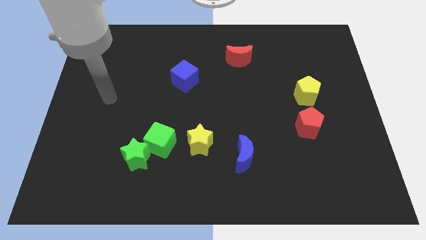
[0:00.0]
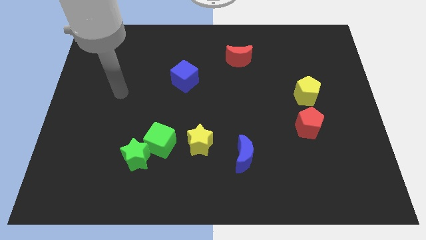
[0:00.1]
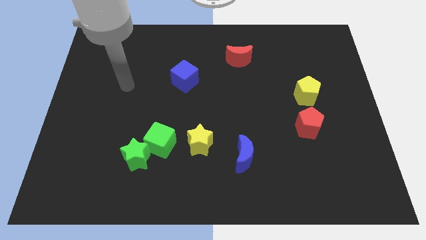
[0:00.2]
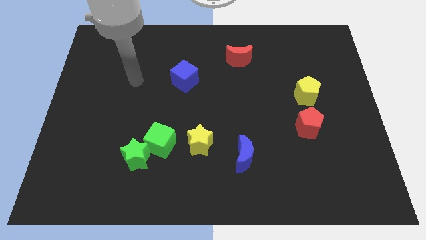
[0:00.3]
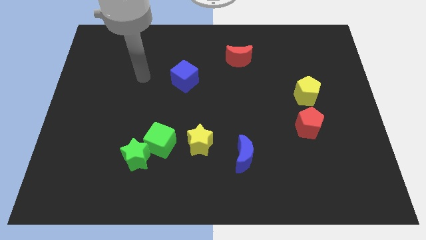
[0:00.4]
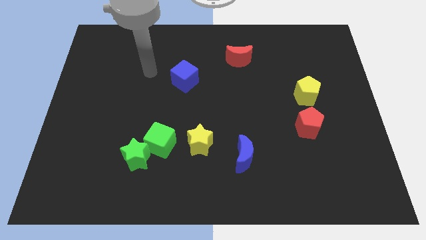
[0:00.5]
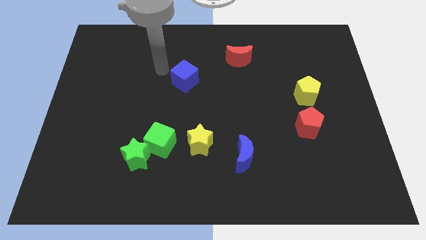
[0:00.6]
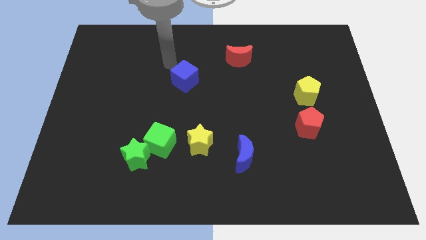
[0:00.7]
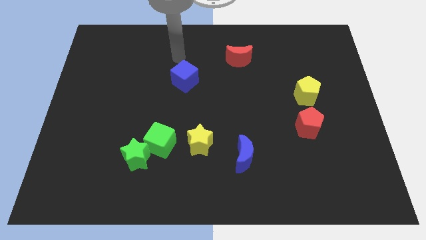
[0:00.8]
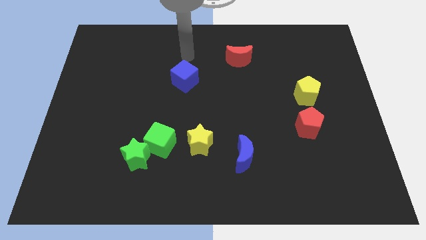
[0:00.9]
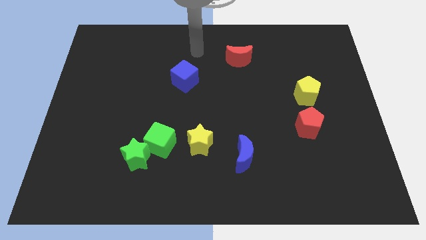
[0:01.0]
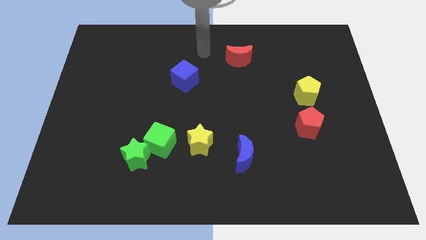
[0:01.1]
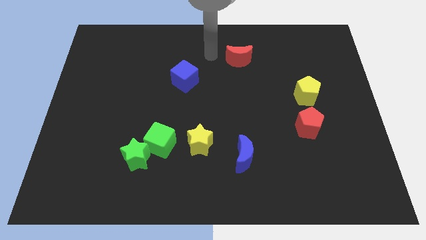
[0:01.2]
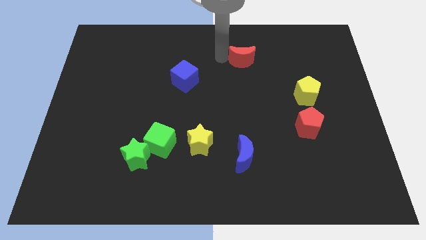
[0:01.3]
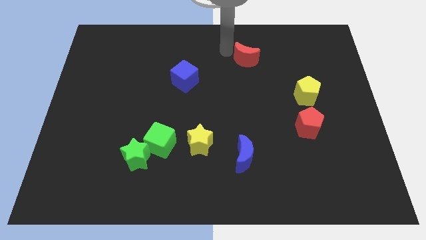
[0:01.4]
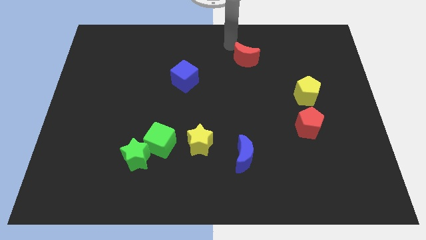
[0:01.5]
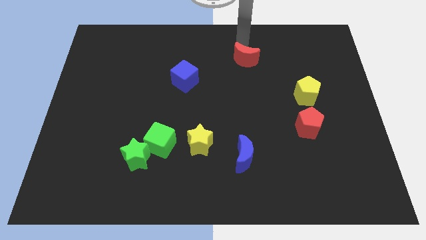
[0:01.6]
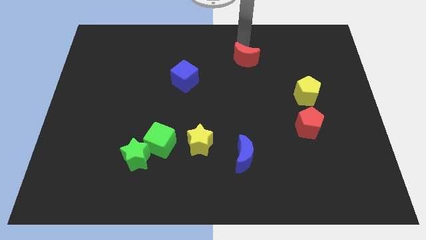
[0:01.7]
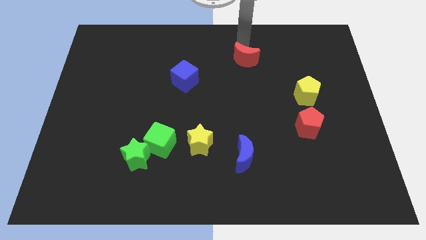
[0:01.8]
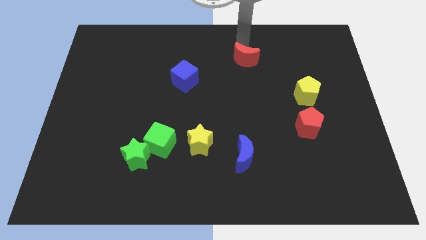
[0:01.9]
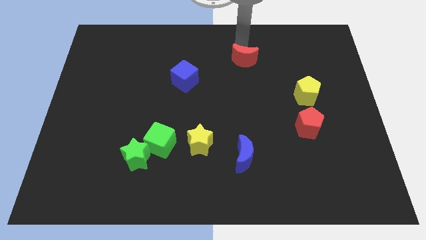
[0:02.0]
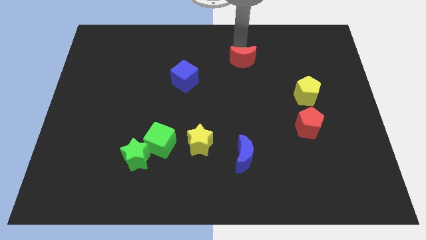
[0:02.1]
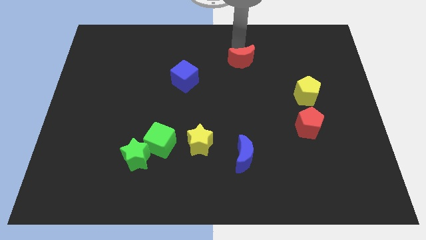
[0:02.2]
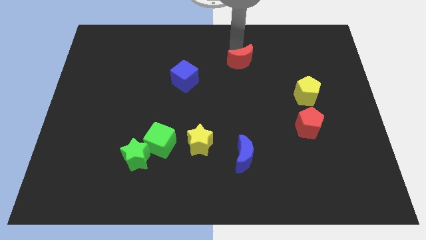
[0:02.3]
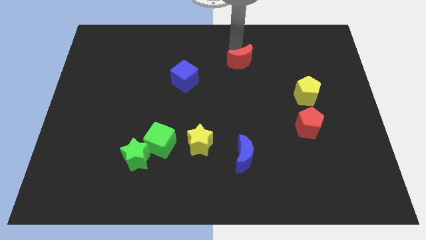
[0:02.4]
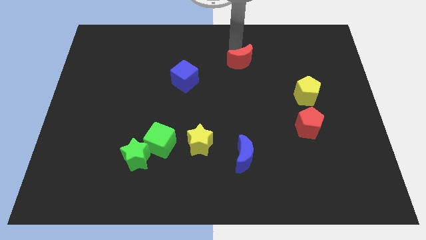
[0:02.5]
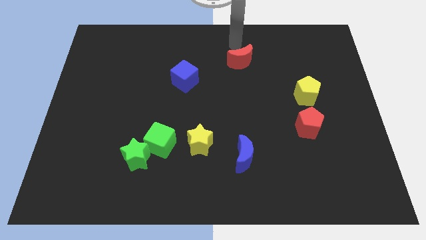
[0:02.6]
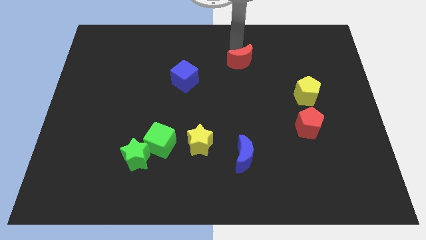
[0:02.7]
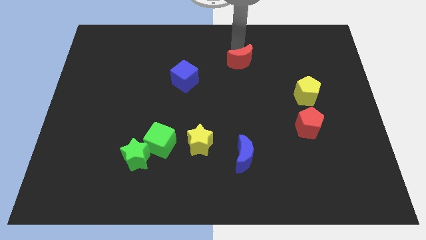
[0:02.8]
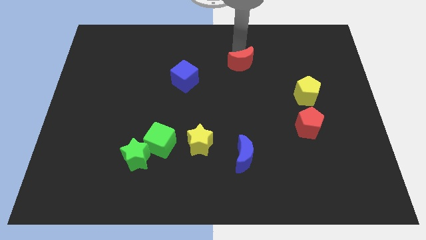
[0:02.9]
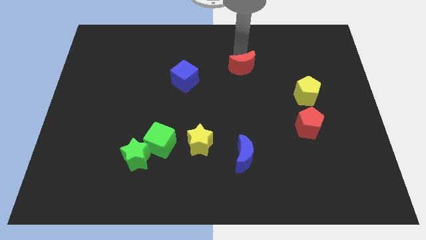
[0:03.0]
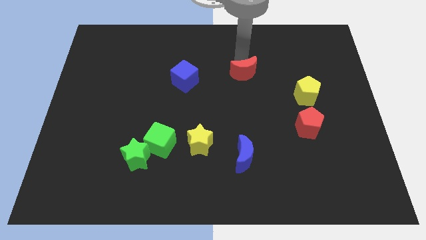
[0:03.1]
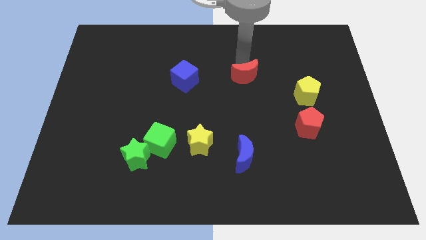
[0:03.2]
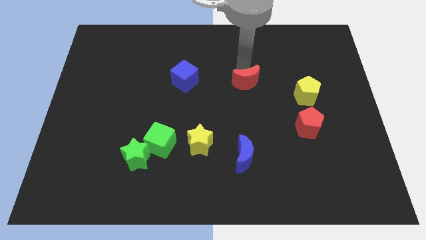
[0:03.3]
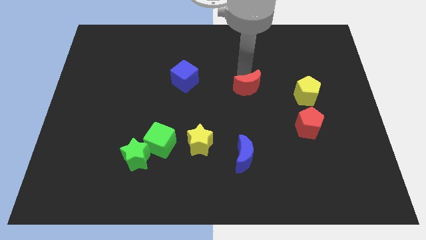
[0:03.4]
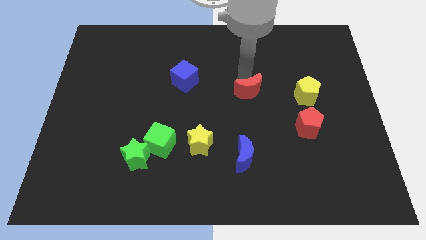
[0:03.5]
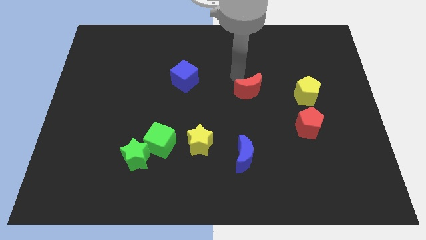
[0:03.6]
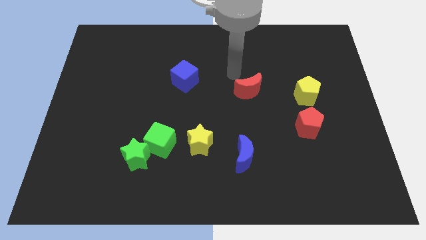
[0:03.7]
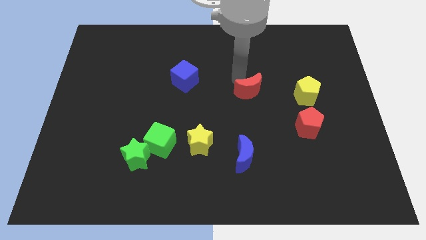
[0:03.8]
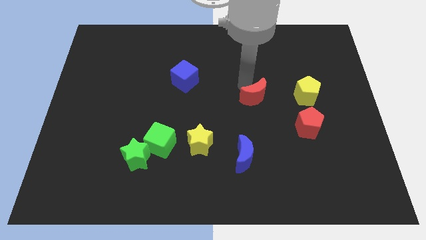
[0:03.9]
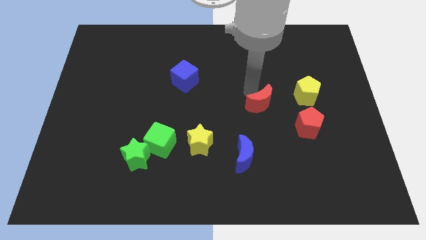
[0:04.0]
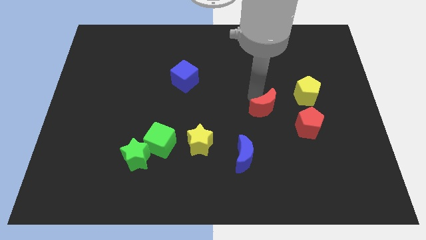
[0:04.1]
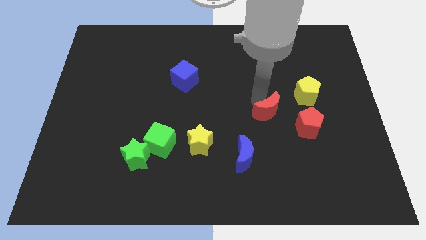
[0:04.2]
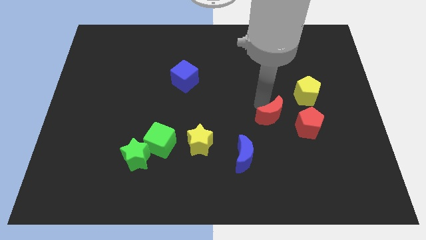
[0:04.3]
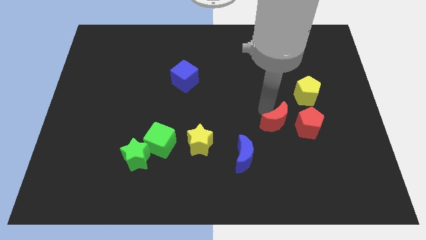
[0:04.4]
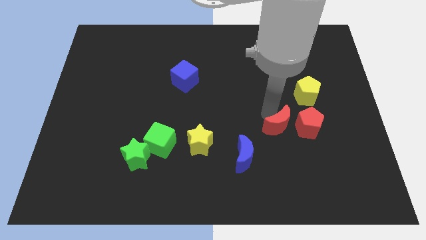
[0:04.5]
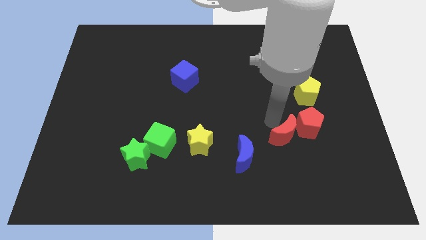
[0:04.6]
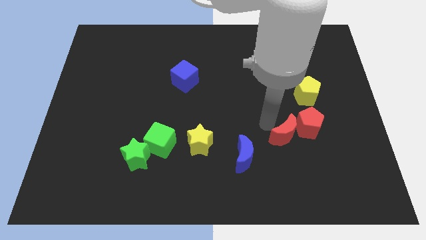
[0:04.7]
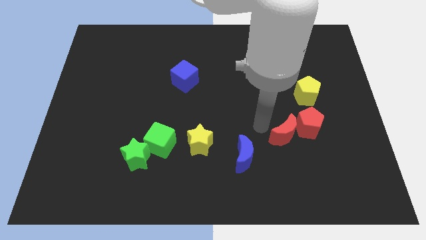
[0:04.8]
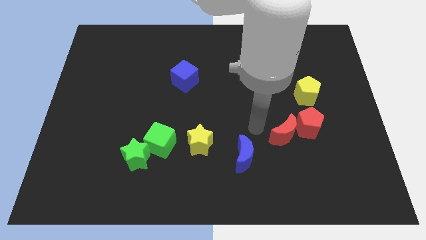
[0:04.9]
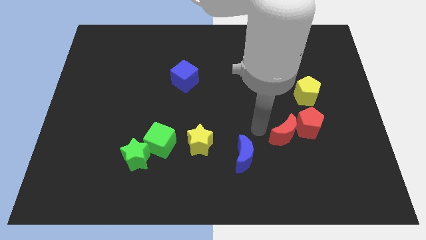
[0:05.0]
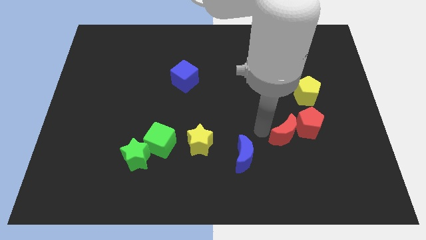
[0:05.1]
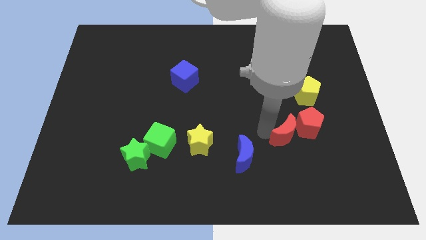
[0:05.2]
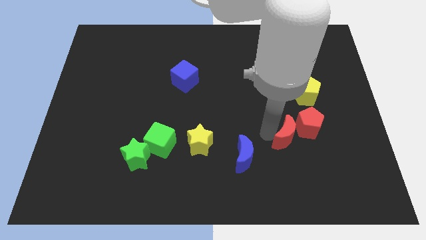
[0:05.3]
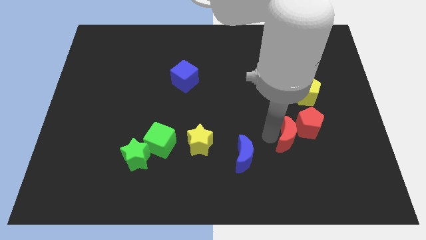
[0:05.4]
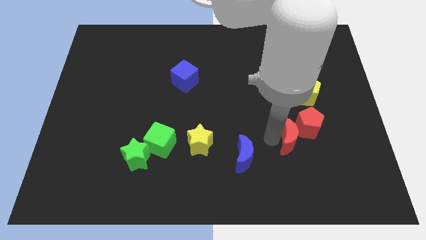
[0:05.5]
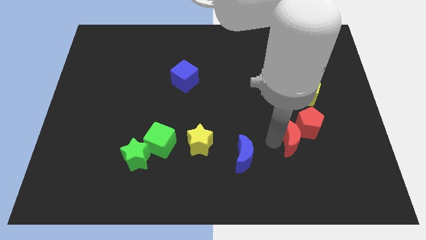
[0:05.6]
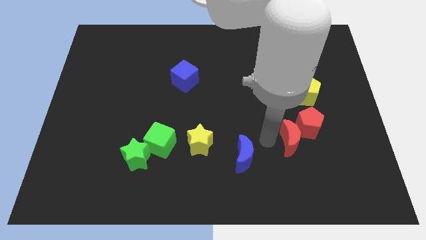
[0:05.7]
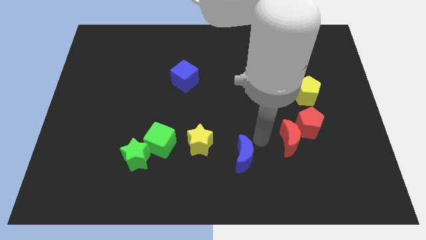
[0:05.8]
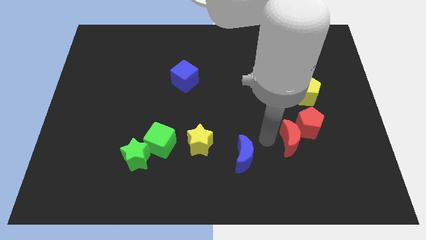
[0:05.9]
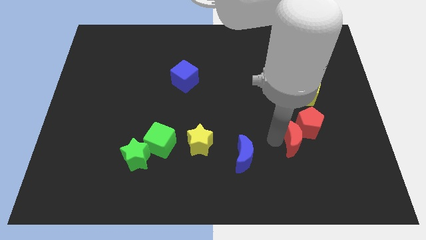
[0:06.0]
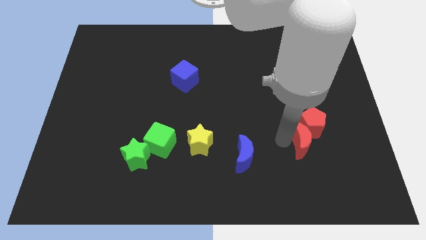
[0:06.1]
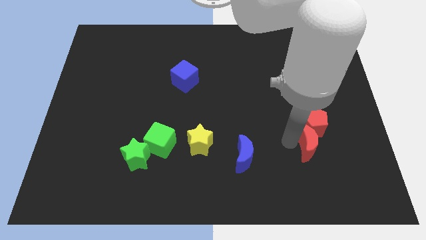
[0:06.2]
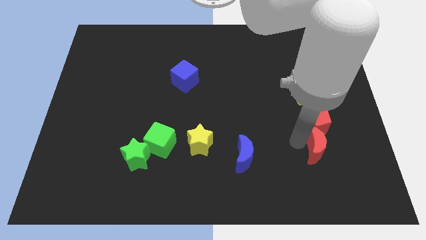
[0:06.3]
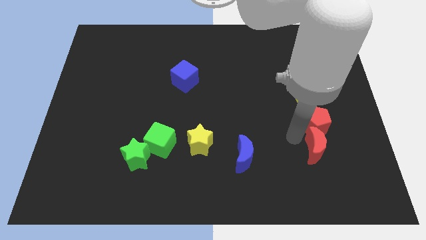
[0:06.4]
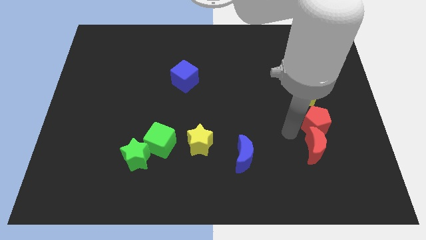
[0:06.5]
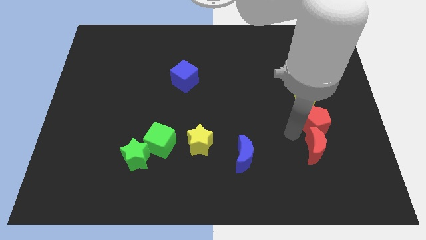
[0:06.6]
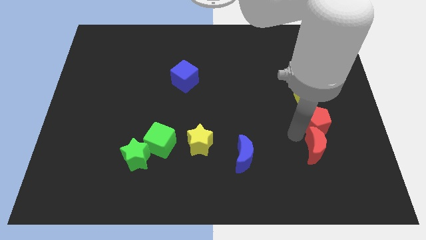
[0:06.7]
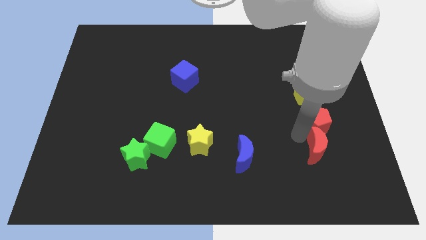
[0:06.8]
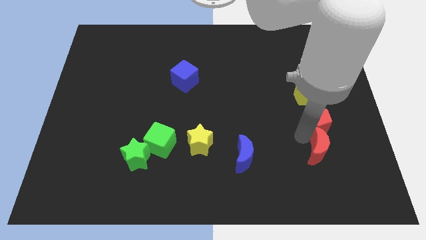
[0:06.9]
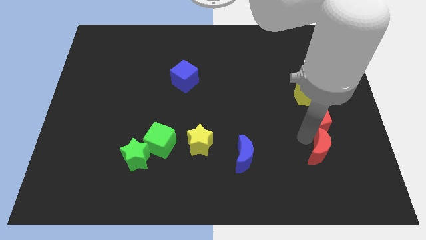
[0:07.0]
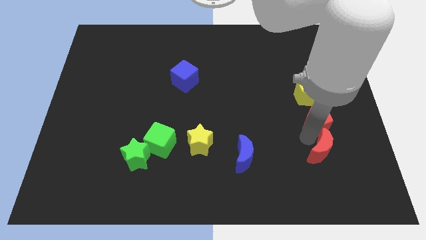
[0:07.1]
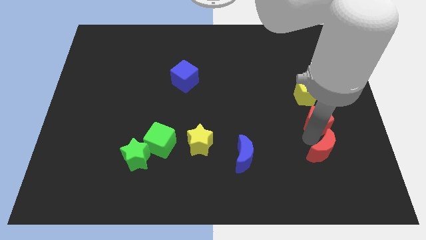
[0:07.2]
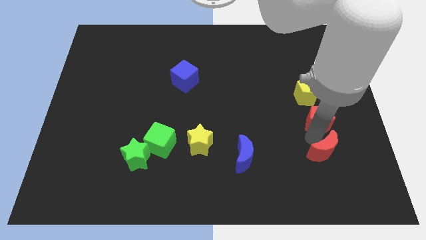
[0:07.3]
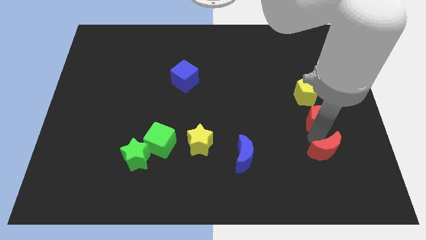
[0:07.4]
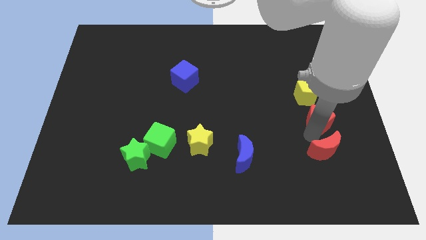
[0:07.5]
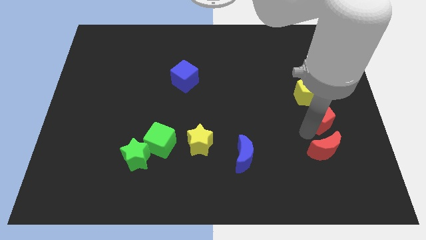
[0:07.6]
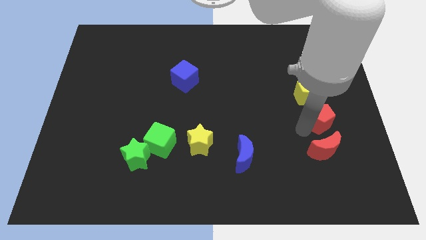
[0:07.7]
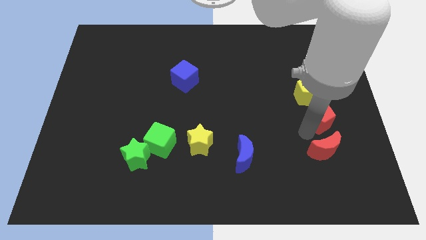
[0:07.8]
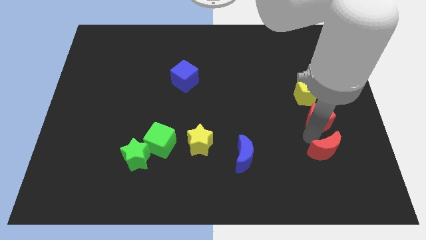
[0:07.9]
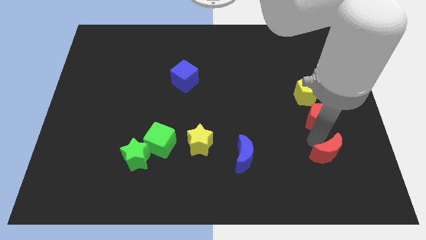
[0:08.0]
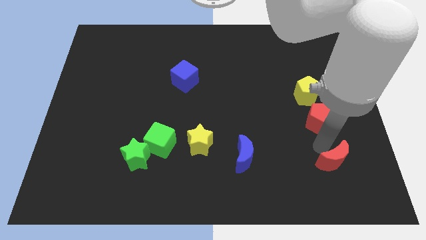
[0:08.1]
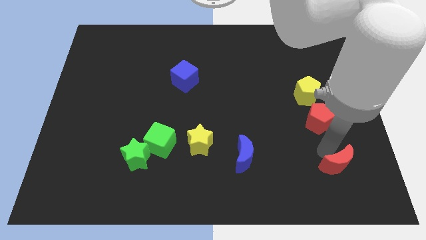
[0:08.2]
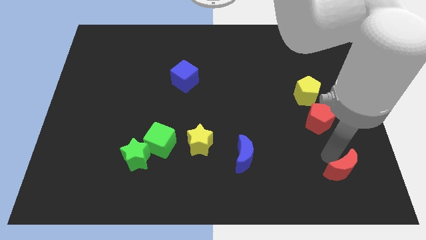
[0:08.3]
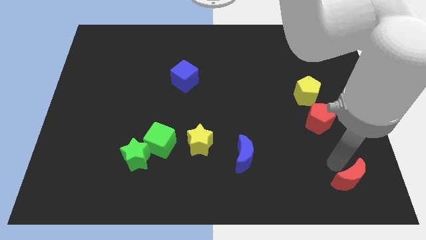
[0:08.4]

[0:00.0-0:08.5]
slide the red moon to the bottom right corner
